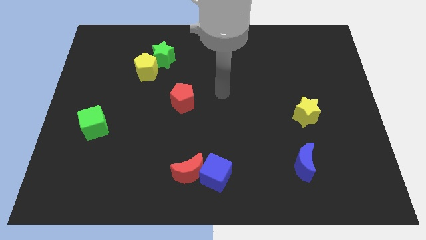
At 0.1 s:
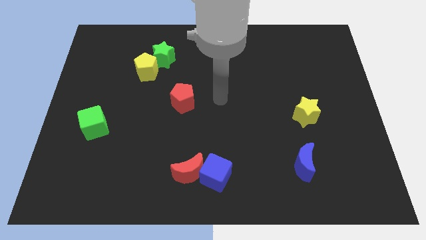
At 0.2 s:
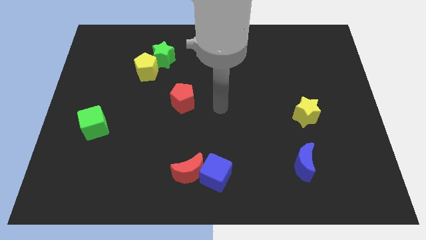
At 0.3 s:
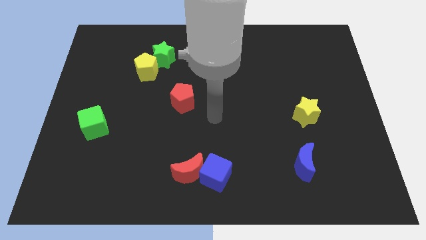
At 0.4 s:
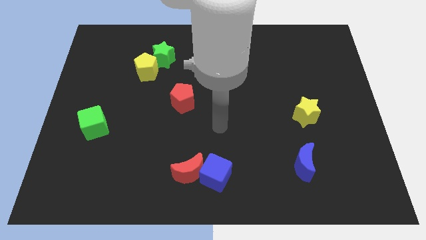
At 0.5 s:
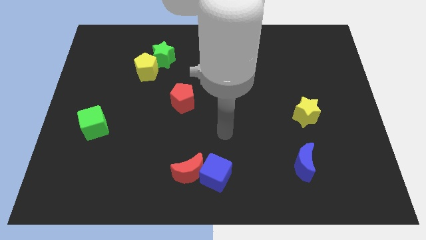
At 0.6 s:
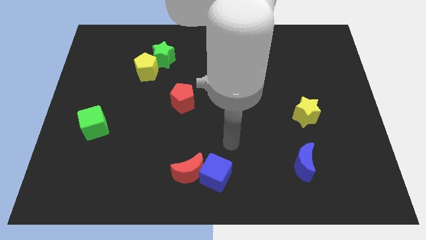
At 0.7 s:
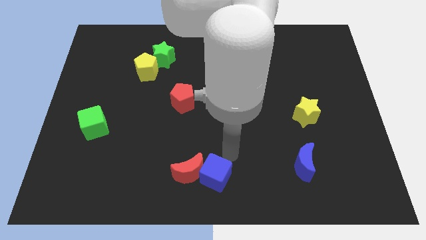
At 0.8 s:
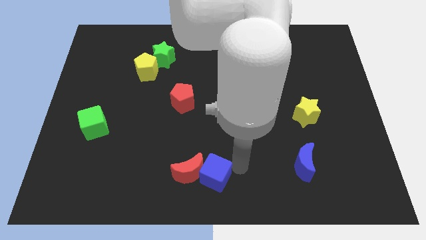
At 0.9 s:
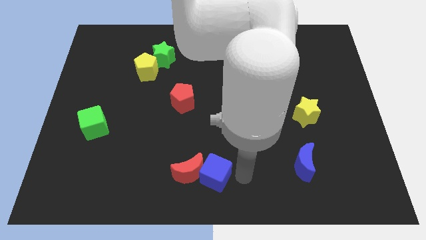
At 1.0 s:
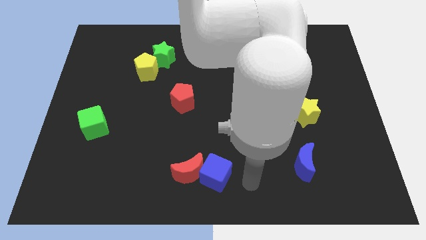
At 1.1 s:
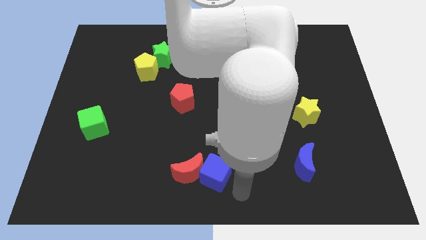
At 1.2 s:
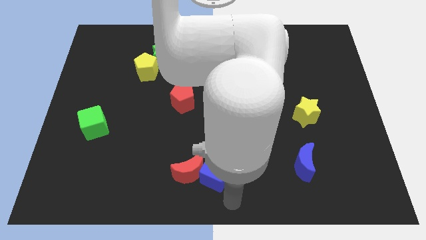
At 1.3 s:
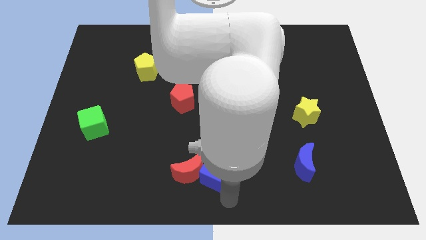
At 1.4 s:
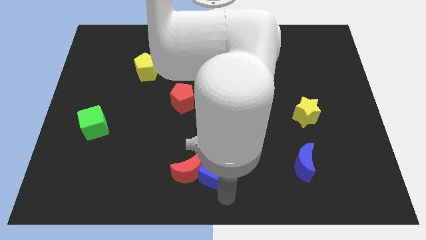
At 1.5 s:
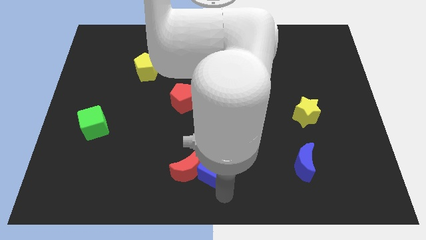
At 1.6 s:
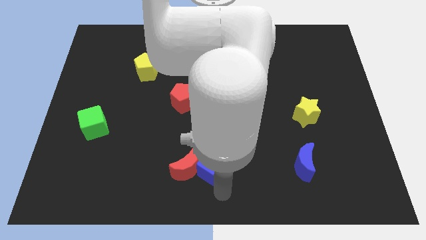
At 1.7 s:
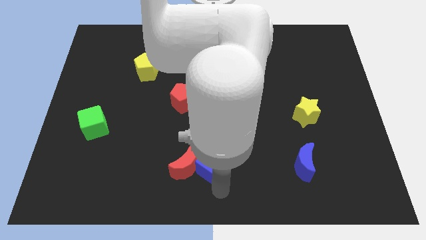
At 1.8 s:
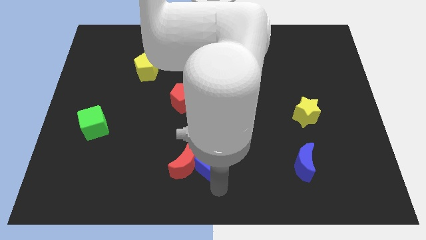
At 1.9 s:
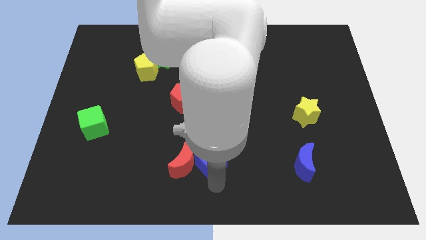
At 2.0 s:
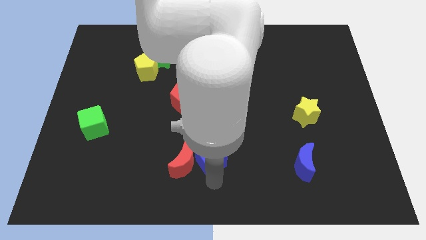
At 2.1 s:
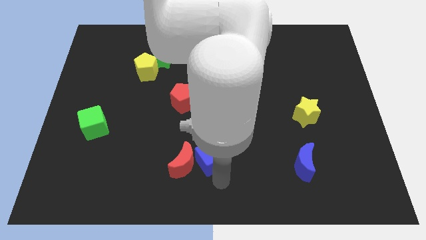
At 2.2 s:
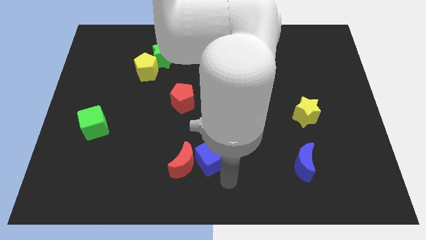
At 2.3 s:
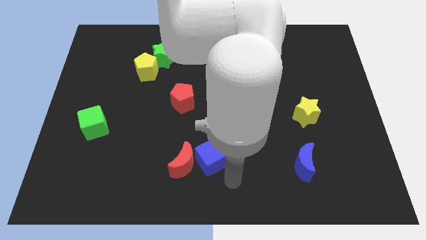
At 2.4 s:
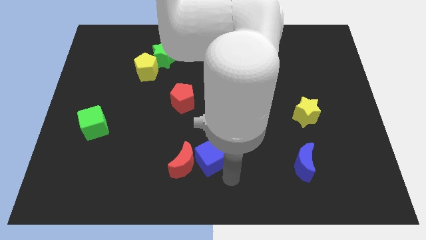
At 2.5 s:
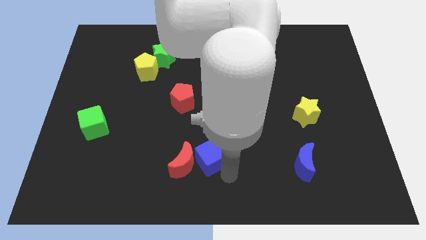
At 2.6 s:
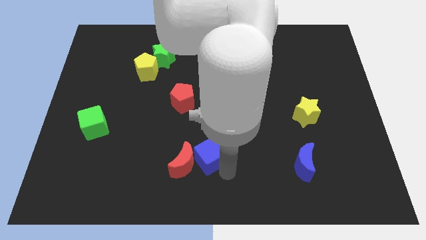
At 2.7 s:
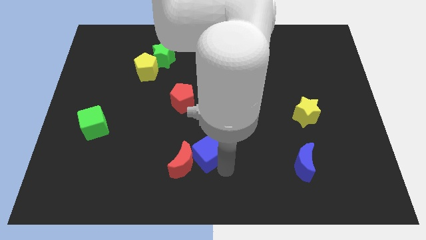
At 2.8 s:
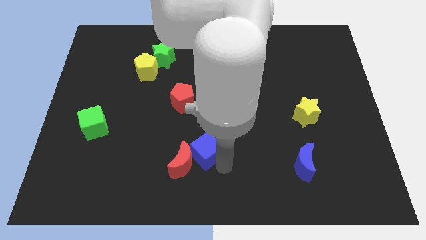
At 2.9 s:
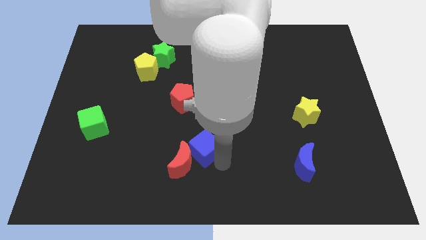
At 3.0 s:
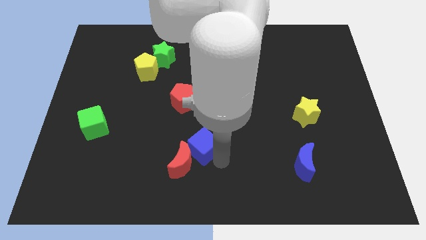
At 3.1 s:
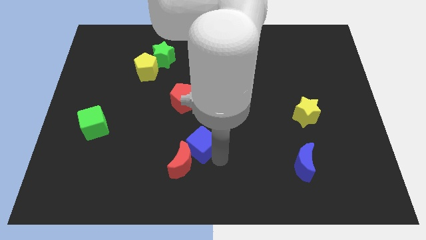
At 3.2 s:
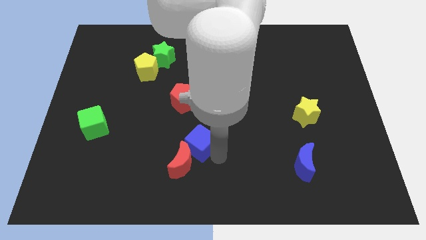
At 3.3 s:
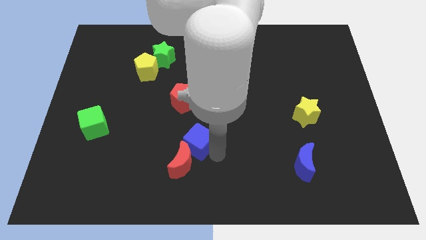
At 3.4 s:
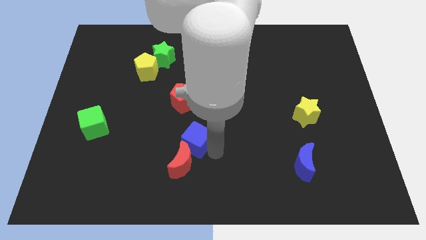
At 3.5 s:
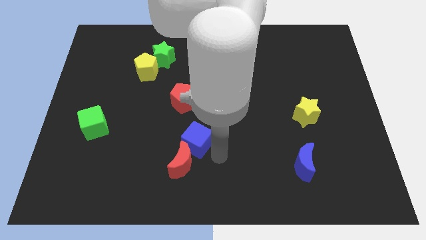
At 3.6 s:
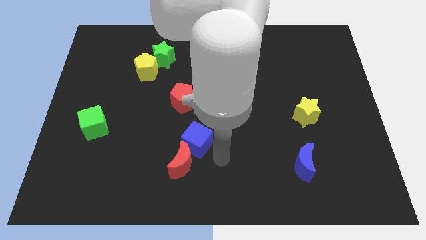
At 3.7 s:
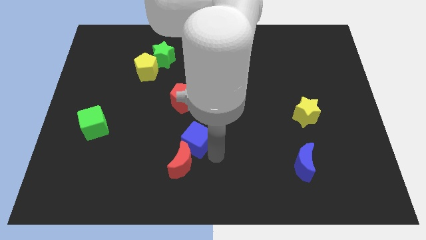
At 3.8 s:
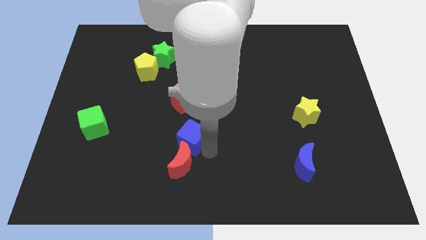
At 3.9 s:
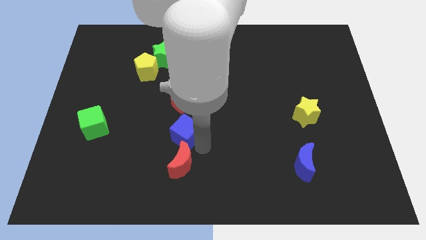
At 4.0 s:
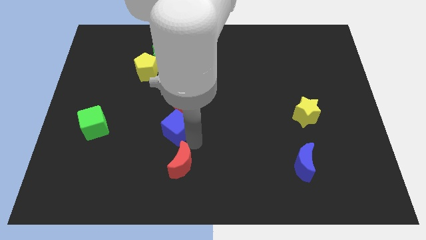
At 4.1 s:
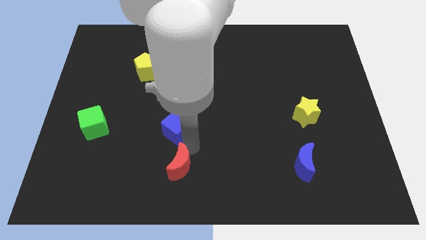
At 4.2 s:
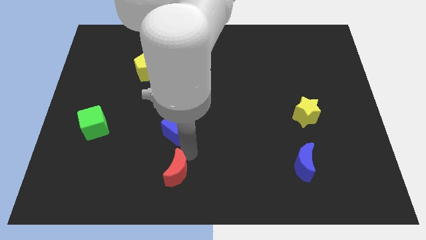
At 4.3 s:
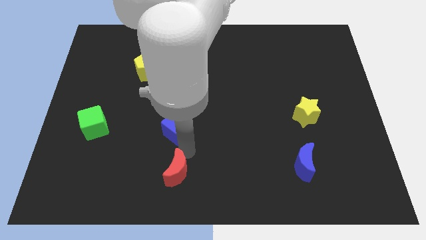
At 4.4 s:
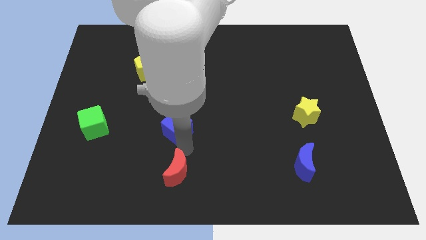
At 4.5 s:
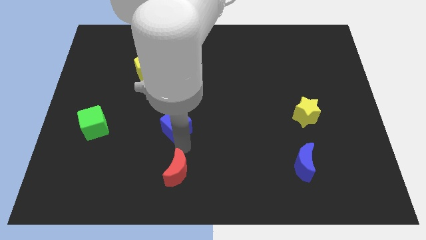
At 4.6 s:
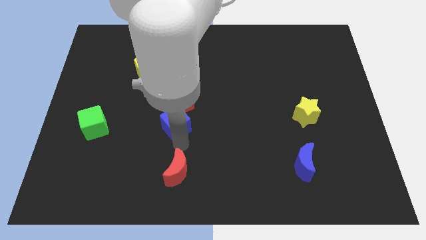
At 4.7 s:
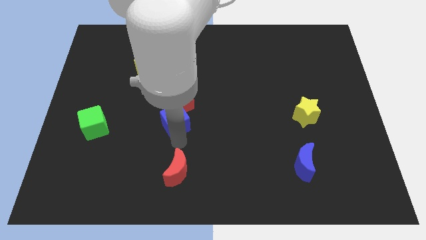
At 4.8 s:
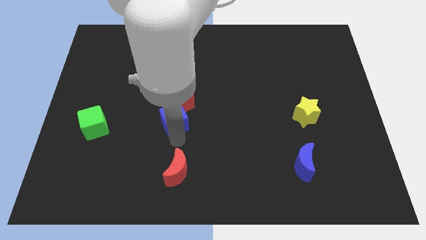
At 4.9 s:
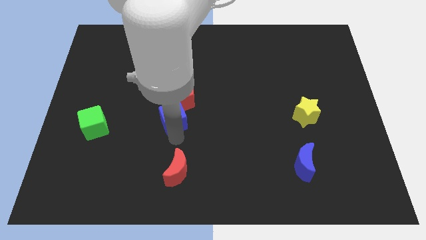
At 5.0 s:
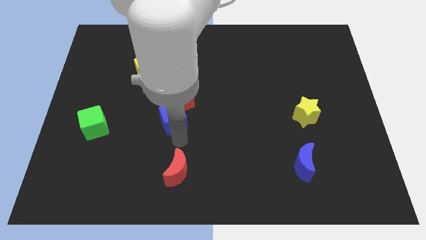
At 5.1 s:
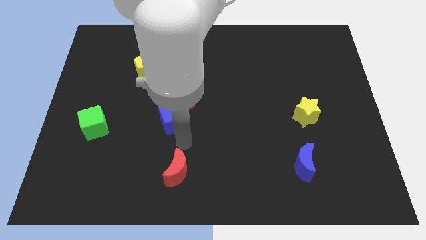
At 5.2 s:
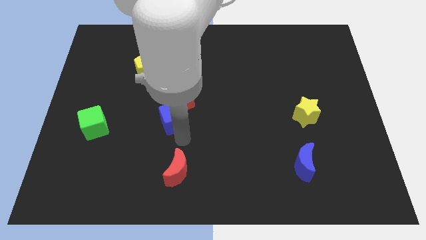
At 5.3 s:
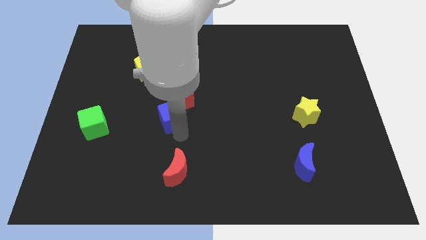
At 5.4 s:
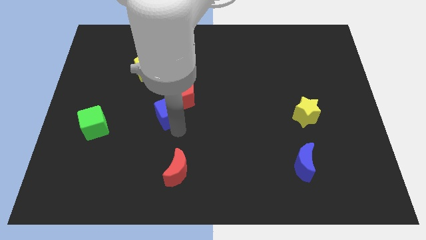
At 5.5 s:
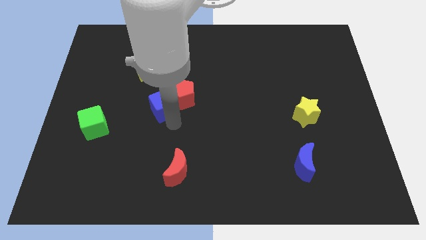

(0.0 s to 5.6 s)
put the blue cube to the bottom side of the green star

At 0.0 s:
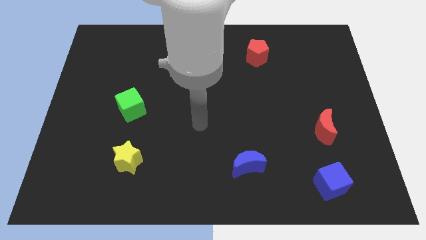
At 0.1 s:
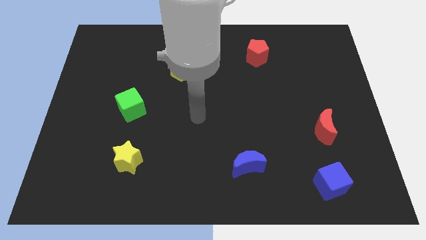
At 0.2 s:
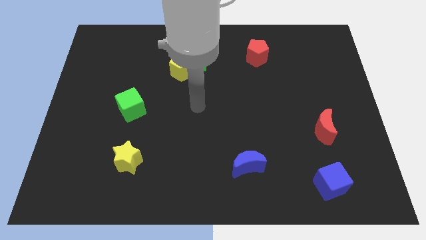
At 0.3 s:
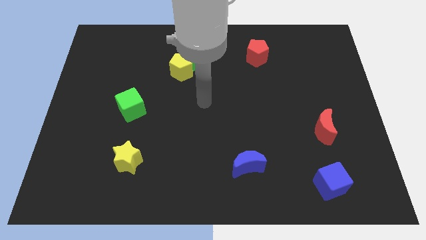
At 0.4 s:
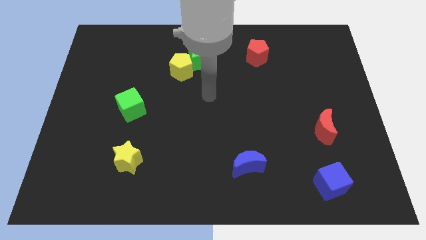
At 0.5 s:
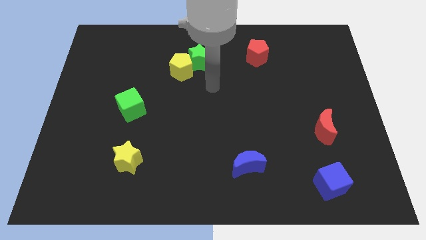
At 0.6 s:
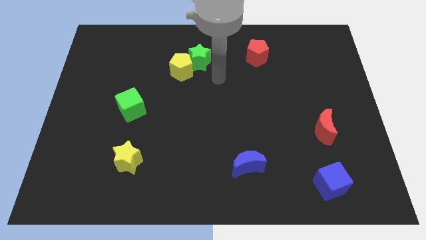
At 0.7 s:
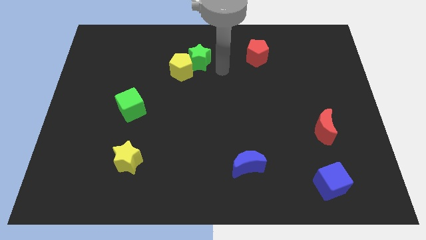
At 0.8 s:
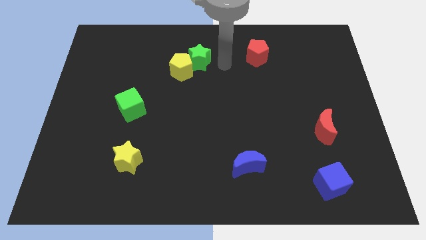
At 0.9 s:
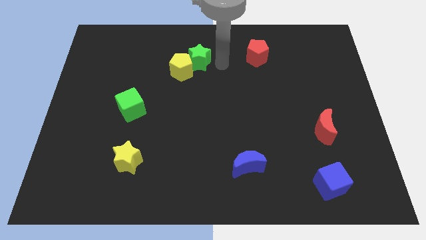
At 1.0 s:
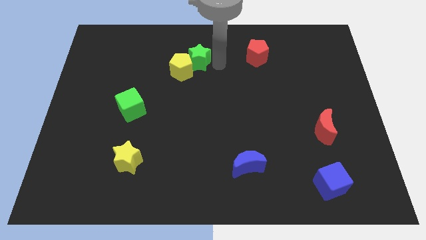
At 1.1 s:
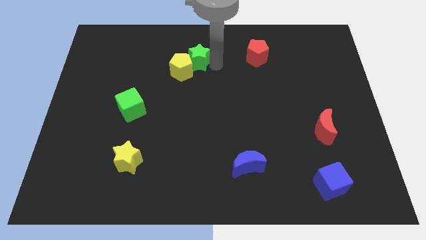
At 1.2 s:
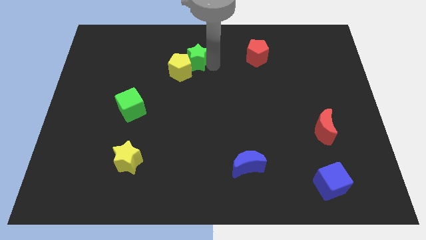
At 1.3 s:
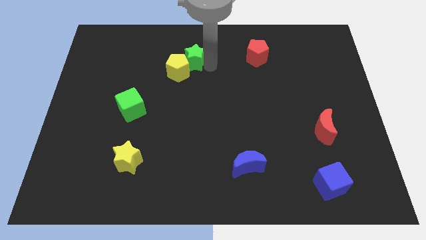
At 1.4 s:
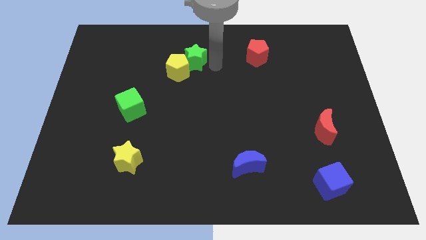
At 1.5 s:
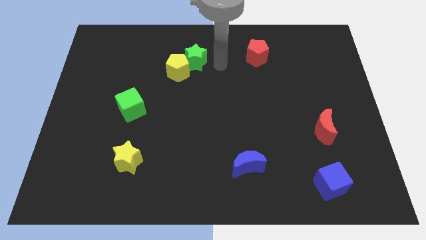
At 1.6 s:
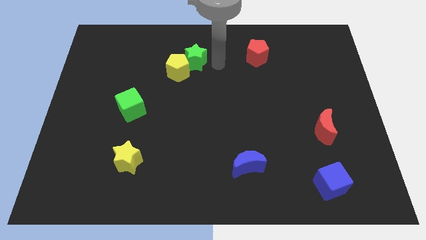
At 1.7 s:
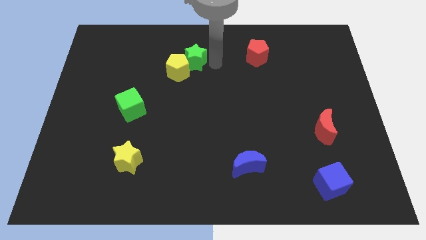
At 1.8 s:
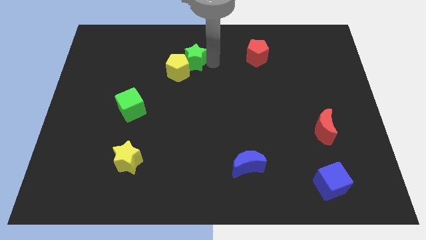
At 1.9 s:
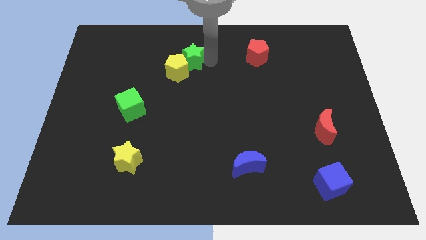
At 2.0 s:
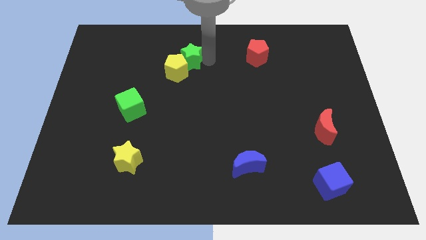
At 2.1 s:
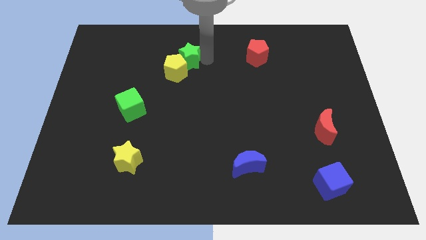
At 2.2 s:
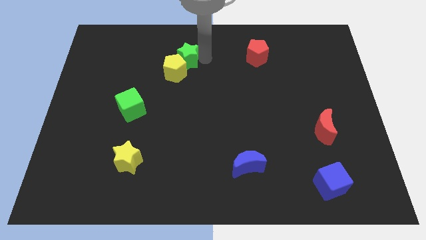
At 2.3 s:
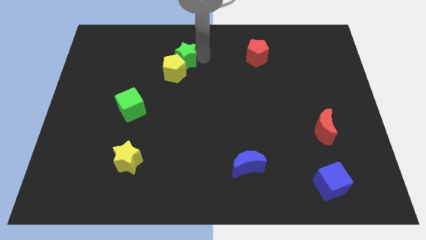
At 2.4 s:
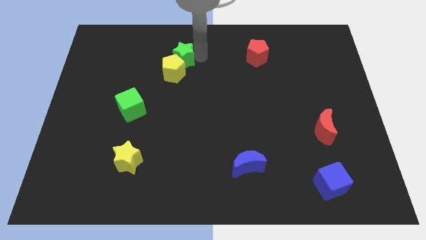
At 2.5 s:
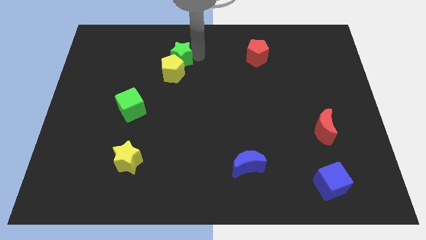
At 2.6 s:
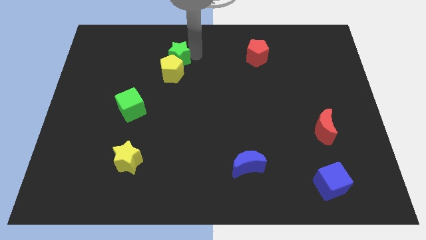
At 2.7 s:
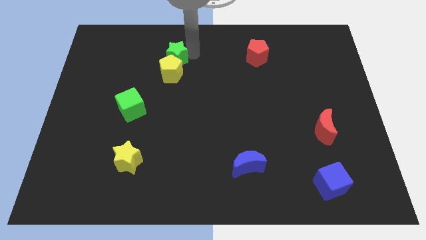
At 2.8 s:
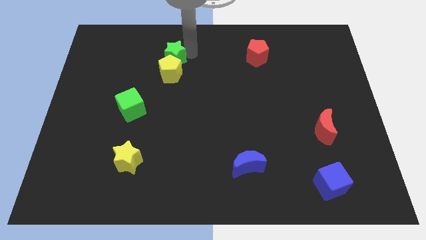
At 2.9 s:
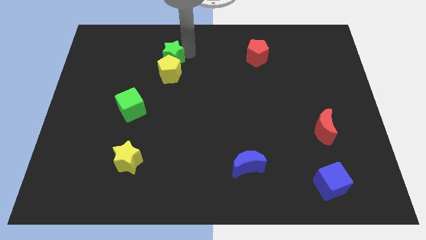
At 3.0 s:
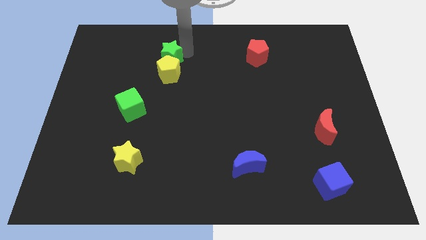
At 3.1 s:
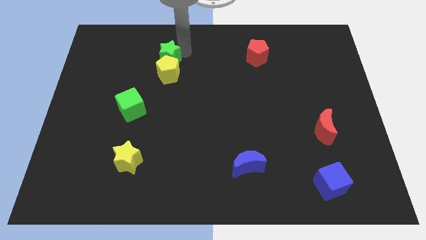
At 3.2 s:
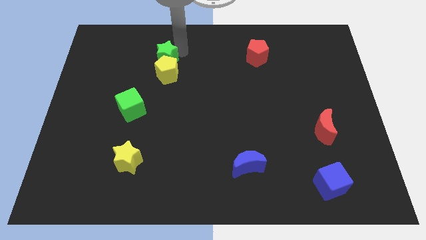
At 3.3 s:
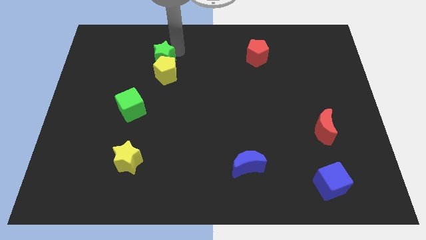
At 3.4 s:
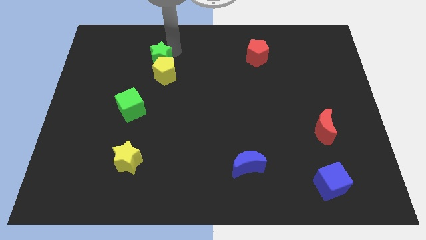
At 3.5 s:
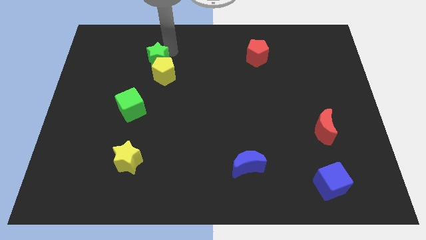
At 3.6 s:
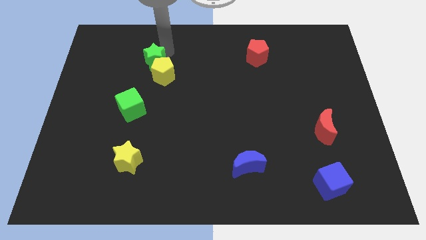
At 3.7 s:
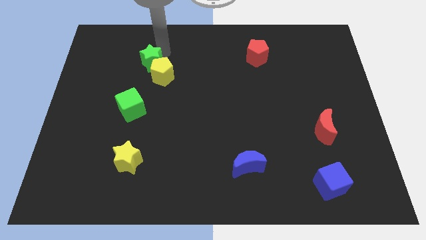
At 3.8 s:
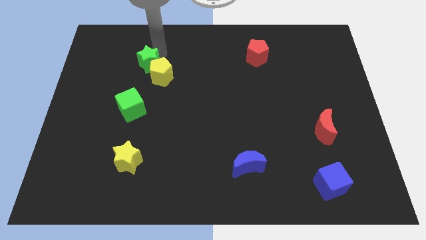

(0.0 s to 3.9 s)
push the green star to the left of the yellow pentagon
